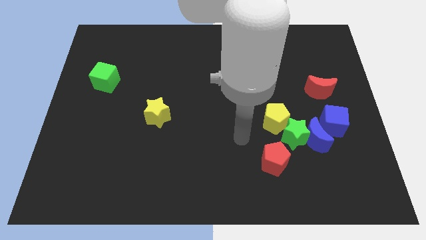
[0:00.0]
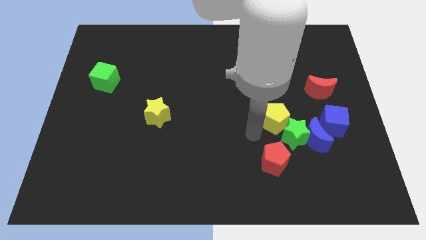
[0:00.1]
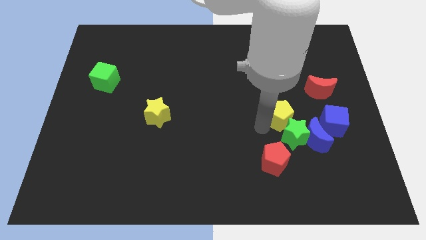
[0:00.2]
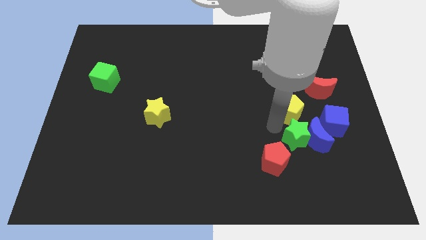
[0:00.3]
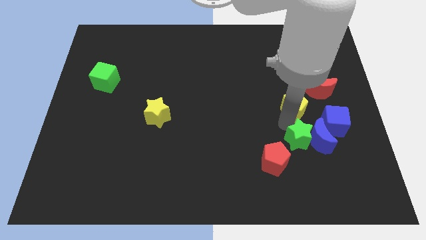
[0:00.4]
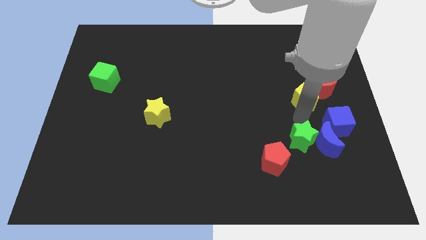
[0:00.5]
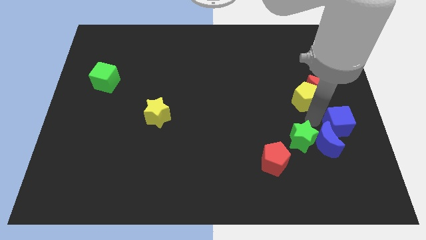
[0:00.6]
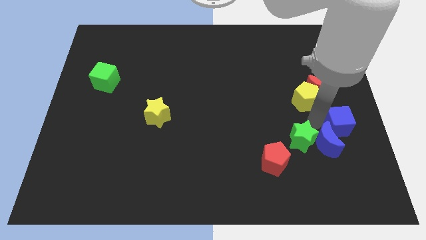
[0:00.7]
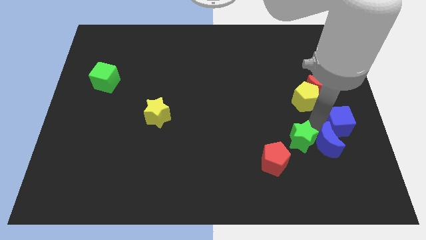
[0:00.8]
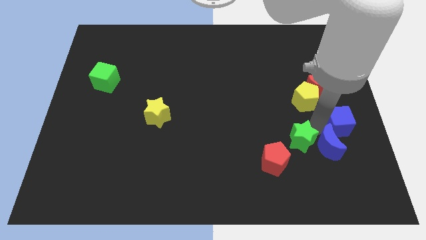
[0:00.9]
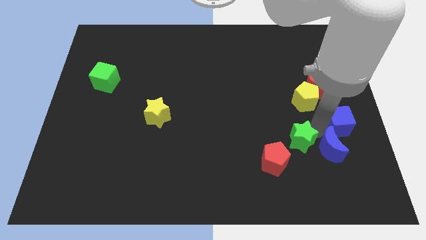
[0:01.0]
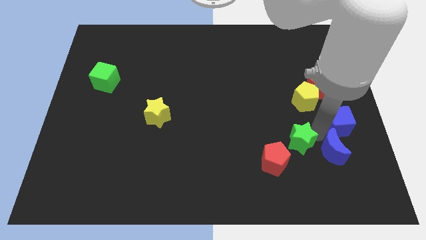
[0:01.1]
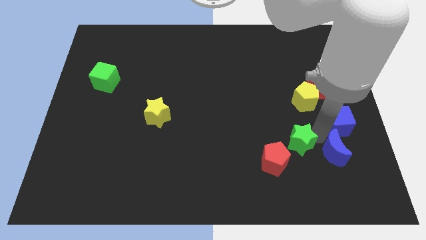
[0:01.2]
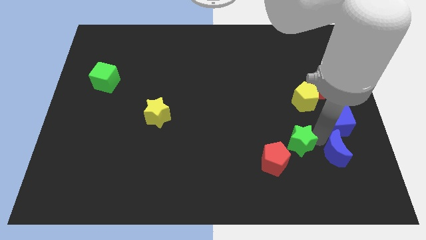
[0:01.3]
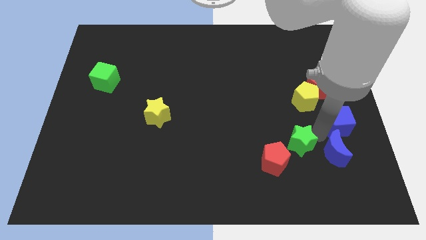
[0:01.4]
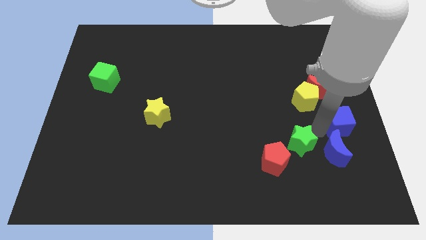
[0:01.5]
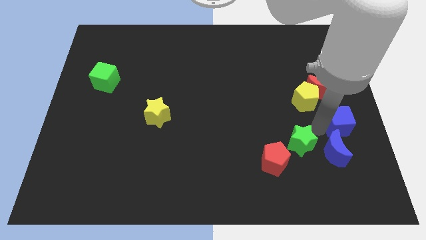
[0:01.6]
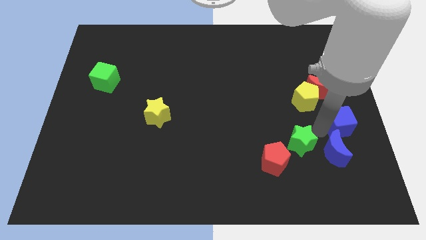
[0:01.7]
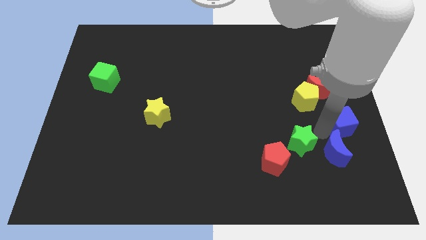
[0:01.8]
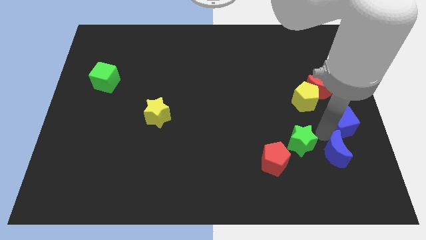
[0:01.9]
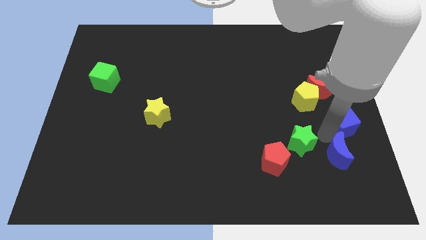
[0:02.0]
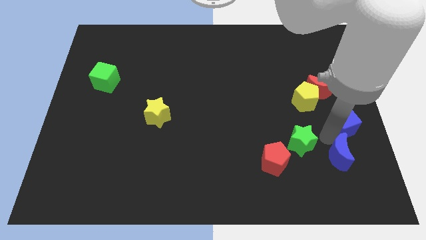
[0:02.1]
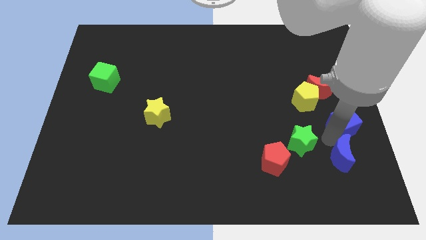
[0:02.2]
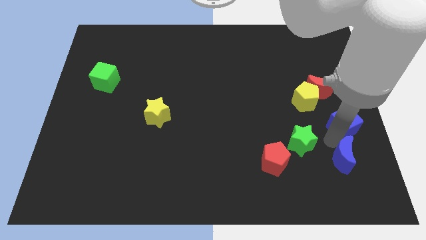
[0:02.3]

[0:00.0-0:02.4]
move the blue moon away from the group

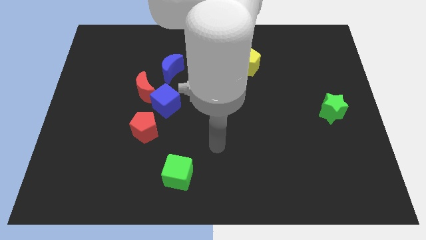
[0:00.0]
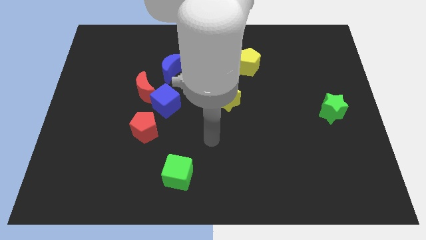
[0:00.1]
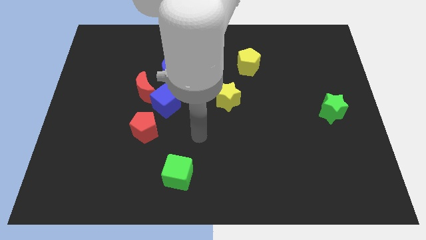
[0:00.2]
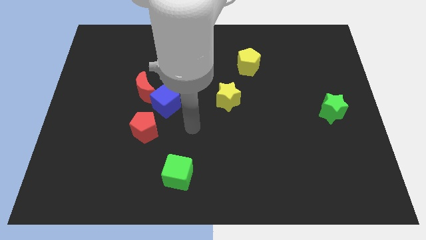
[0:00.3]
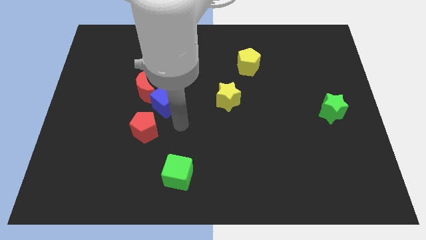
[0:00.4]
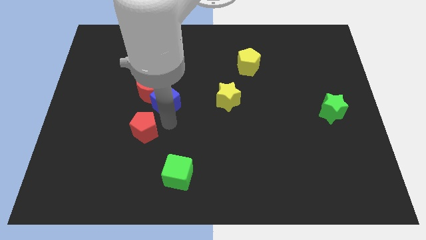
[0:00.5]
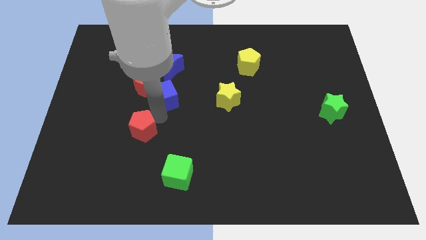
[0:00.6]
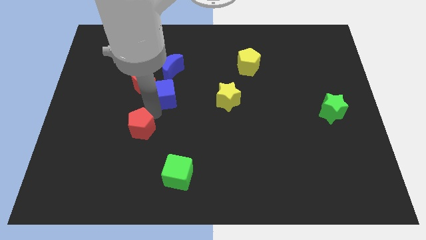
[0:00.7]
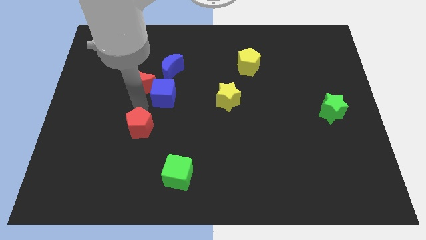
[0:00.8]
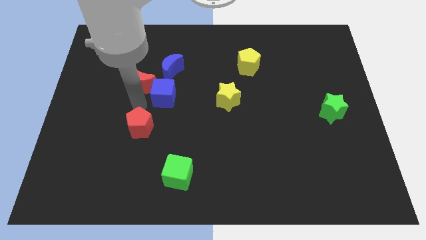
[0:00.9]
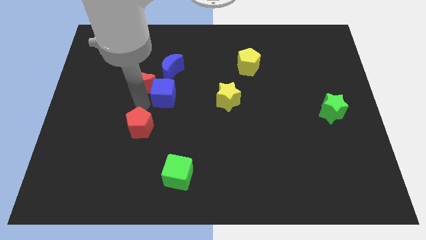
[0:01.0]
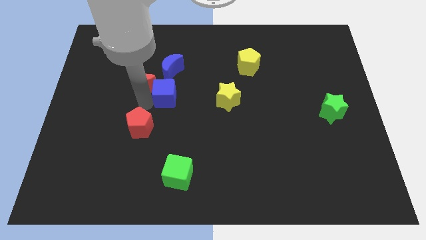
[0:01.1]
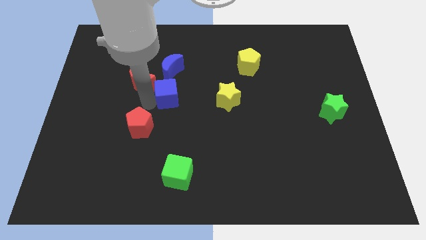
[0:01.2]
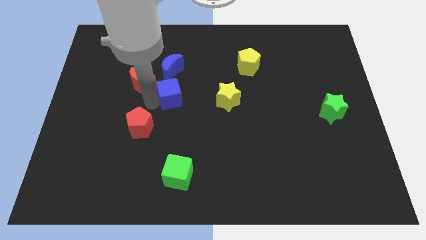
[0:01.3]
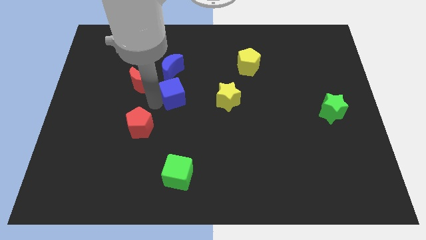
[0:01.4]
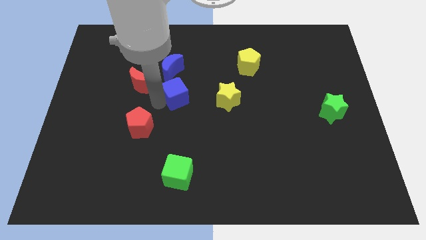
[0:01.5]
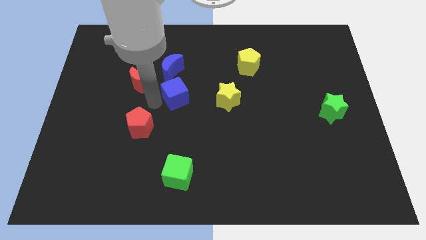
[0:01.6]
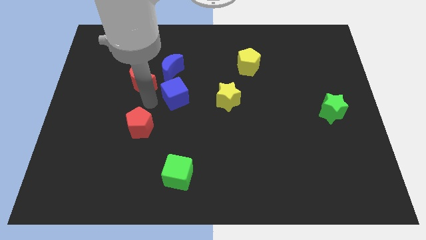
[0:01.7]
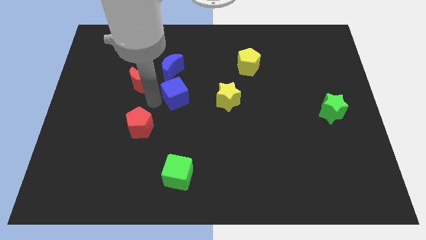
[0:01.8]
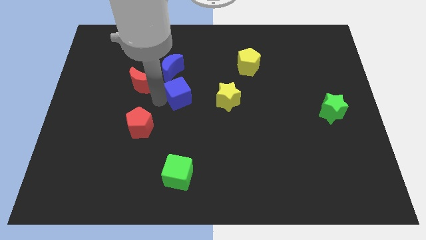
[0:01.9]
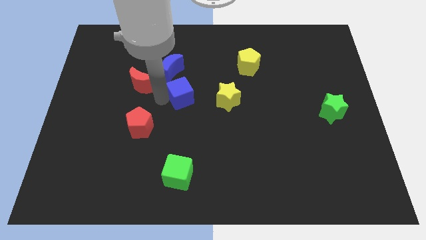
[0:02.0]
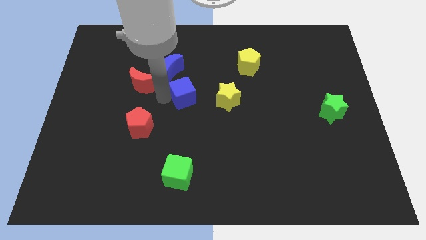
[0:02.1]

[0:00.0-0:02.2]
pull the blue cube apart from the red moon and red pentagon

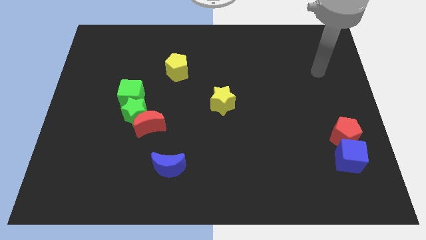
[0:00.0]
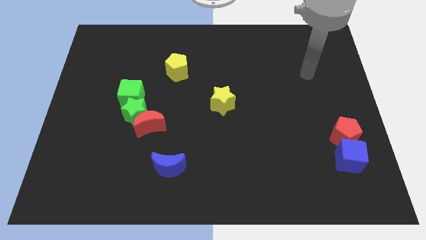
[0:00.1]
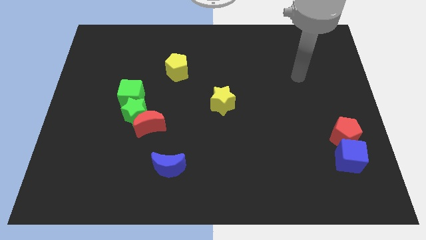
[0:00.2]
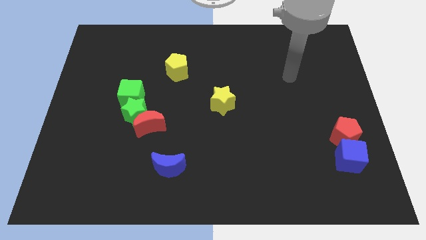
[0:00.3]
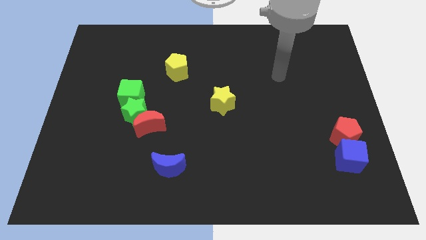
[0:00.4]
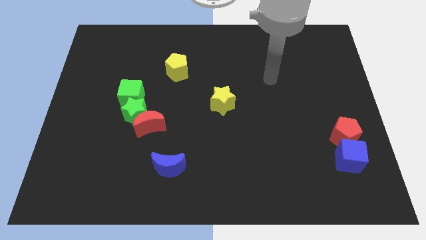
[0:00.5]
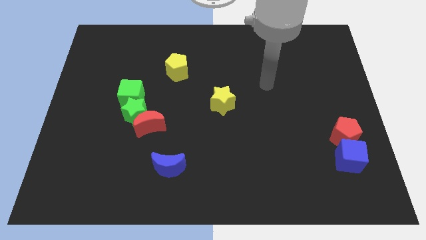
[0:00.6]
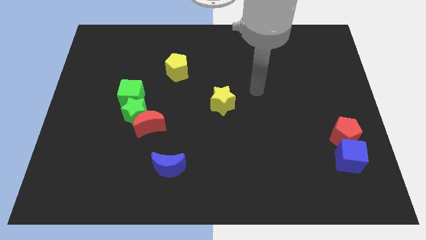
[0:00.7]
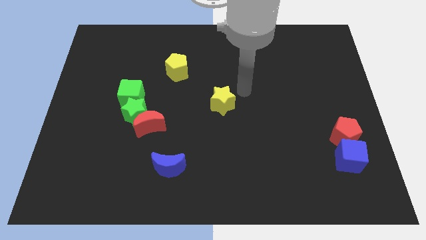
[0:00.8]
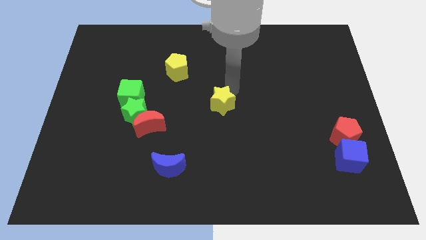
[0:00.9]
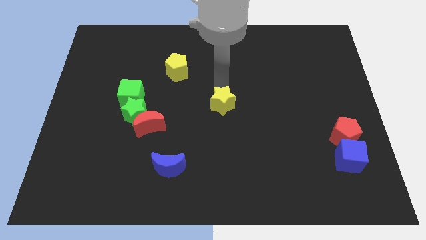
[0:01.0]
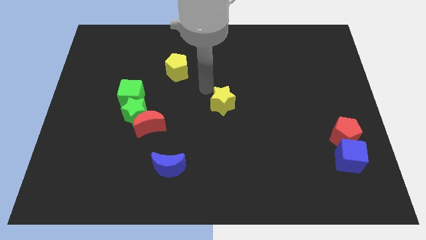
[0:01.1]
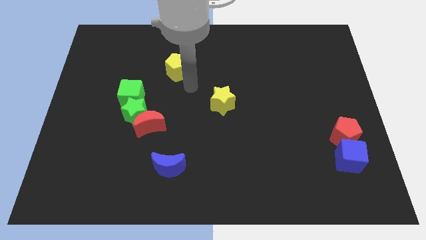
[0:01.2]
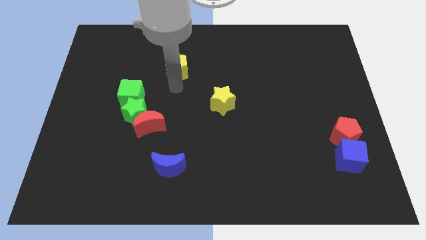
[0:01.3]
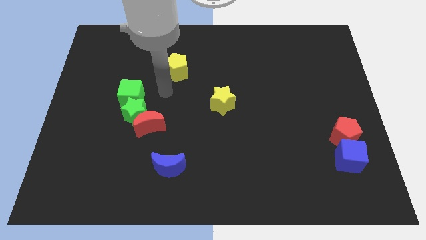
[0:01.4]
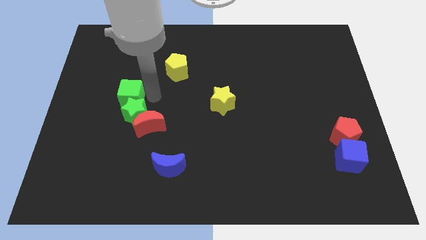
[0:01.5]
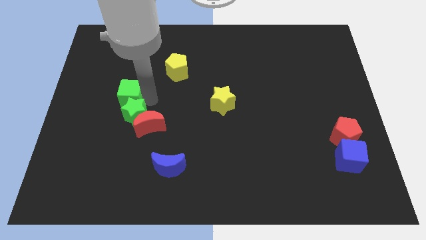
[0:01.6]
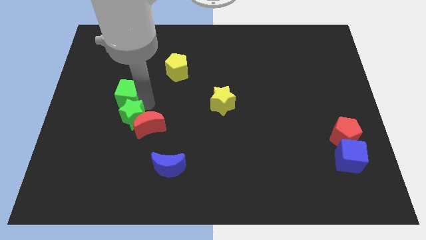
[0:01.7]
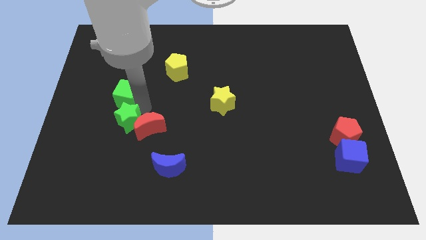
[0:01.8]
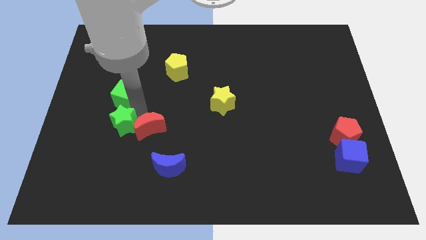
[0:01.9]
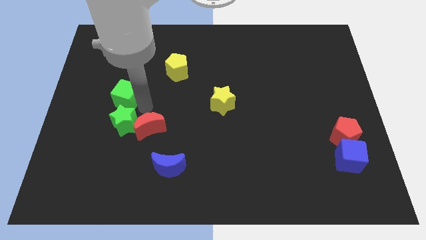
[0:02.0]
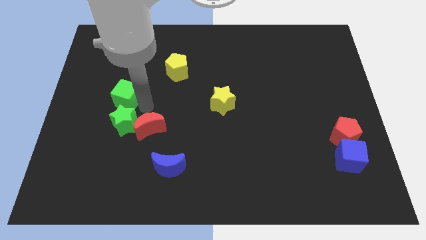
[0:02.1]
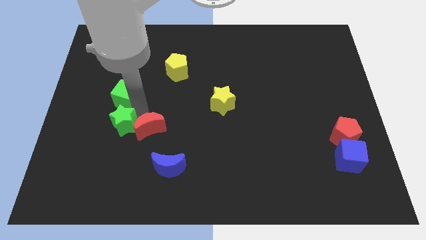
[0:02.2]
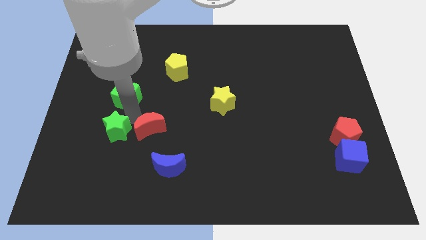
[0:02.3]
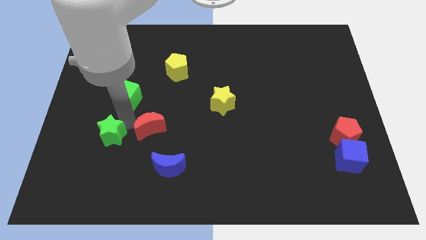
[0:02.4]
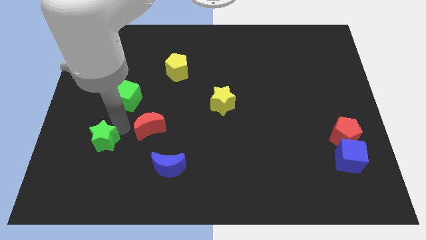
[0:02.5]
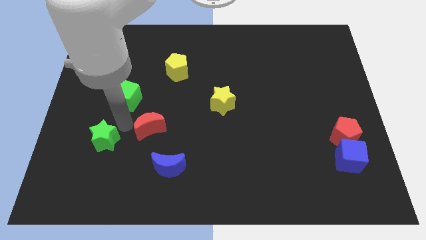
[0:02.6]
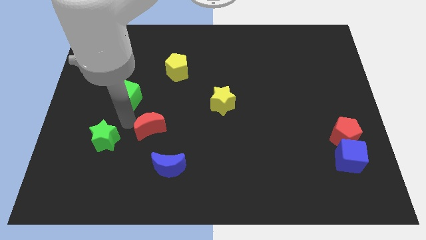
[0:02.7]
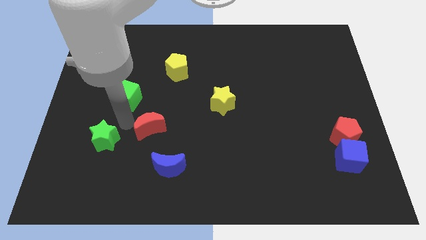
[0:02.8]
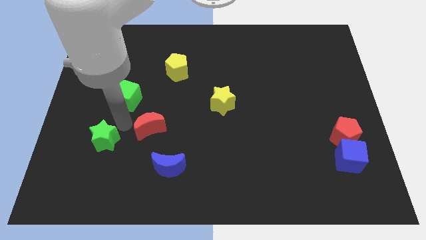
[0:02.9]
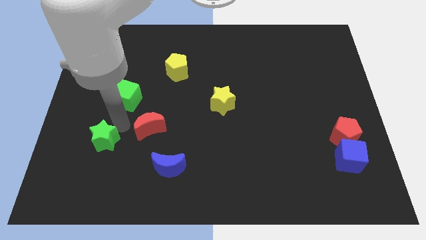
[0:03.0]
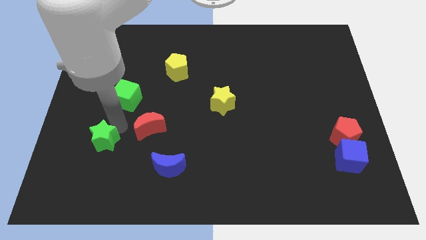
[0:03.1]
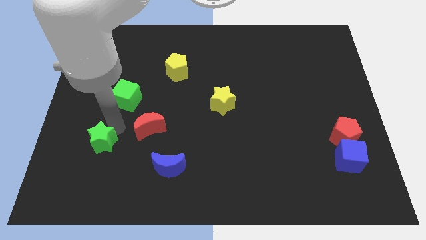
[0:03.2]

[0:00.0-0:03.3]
separate the green star from the red moon and green cube

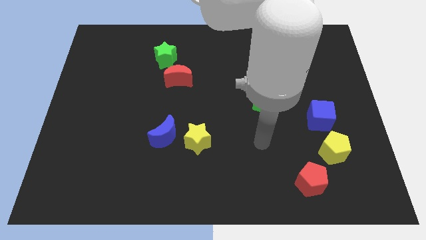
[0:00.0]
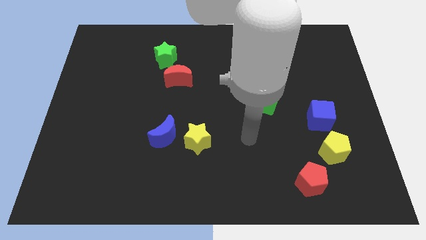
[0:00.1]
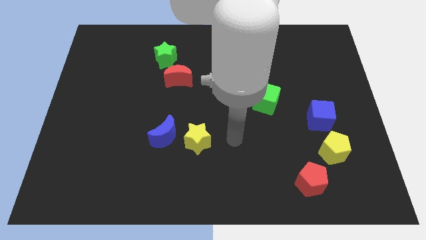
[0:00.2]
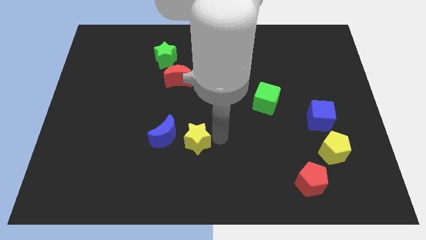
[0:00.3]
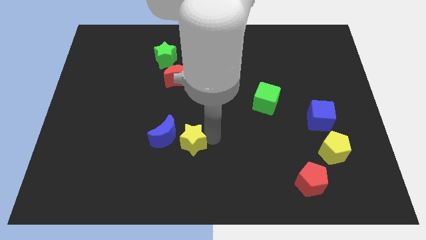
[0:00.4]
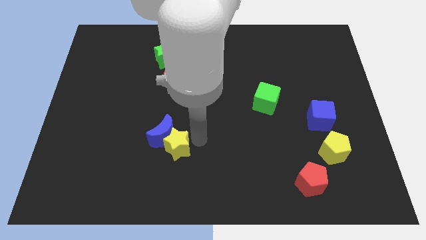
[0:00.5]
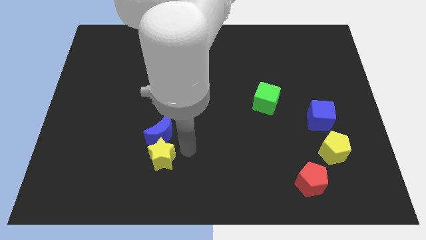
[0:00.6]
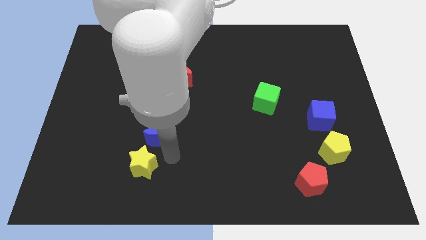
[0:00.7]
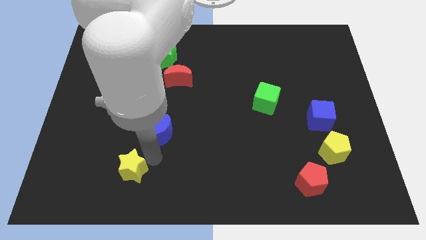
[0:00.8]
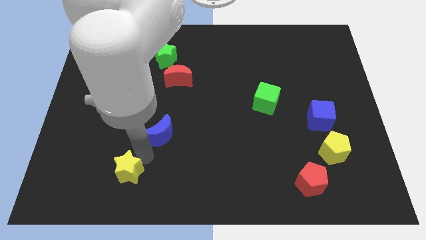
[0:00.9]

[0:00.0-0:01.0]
move the blue moon away from the yellow star

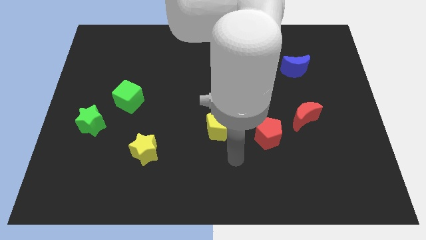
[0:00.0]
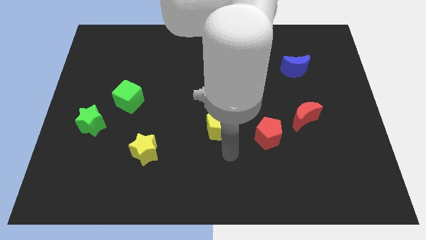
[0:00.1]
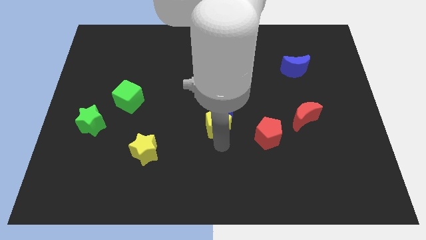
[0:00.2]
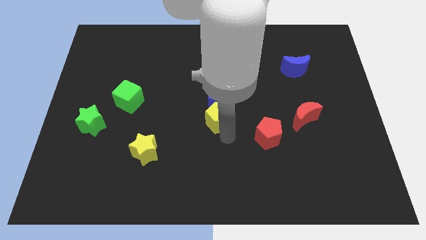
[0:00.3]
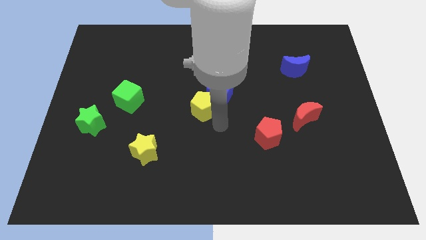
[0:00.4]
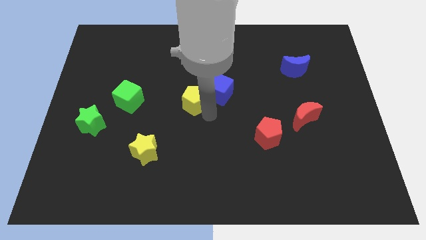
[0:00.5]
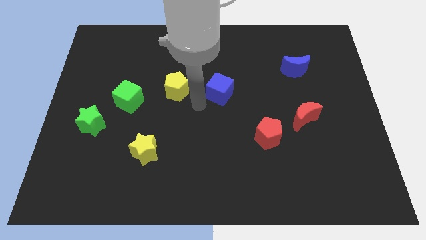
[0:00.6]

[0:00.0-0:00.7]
move the blue cube away from the yellow pentagon
